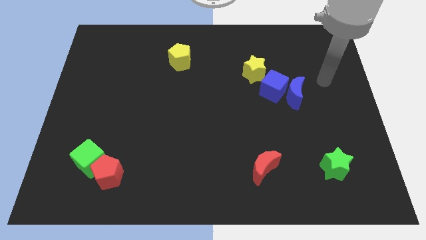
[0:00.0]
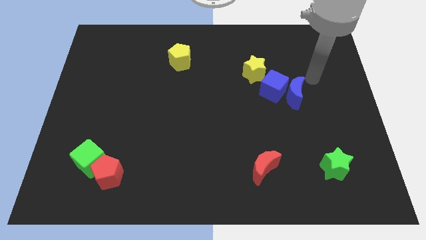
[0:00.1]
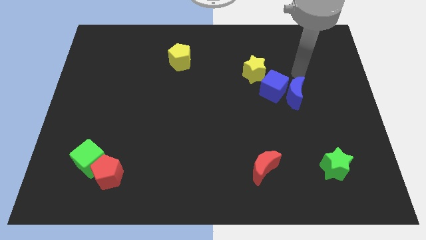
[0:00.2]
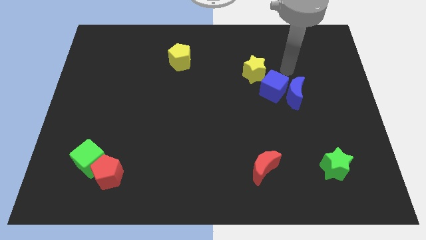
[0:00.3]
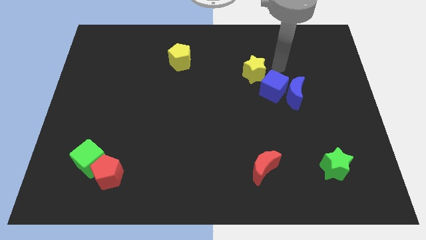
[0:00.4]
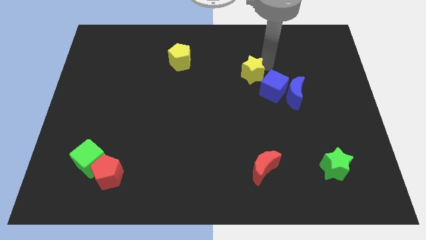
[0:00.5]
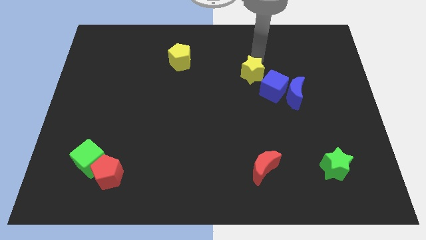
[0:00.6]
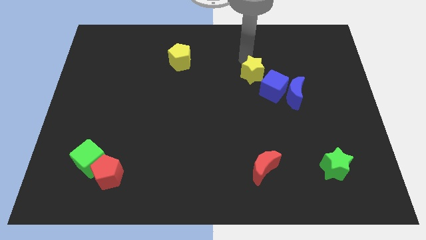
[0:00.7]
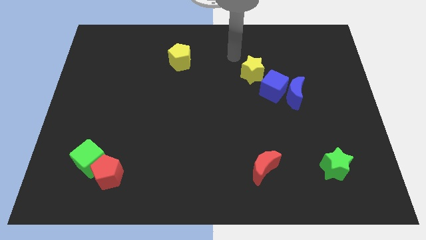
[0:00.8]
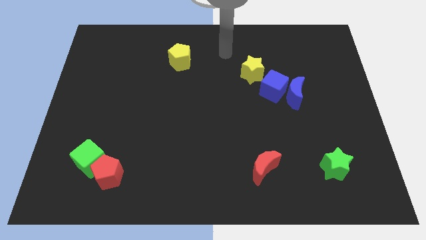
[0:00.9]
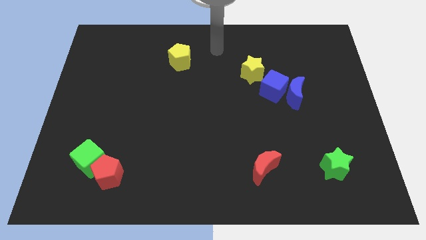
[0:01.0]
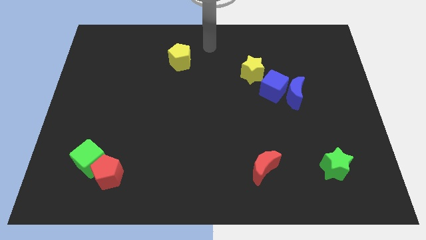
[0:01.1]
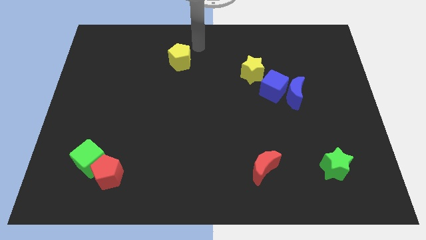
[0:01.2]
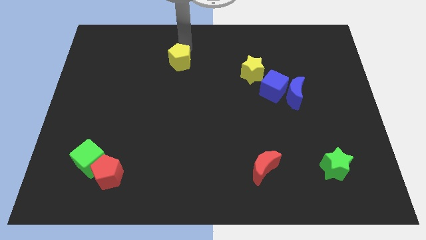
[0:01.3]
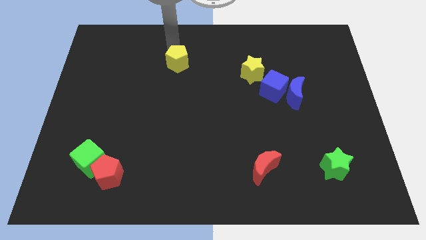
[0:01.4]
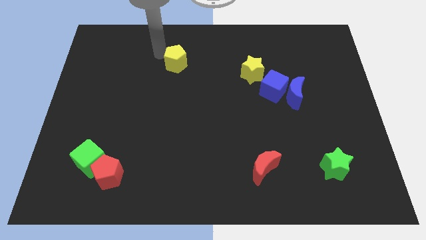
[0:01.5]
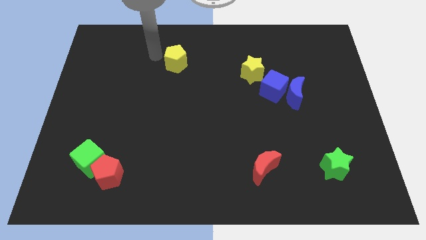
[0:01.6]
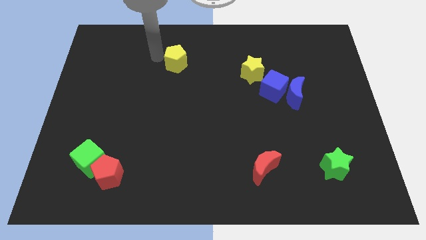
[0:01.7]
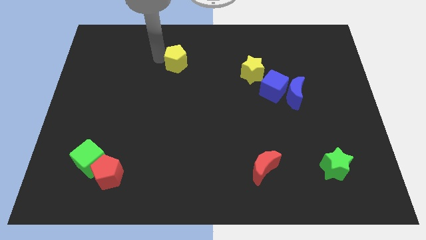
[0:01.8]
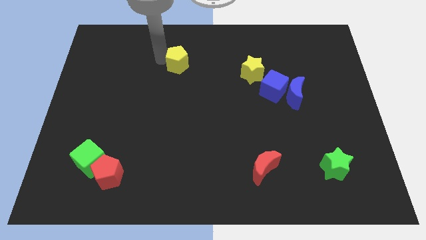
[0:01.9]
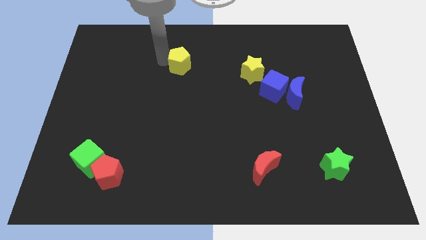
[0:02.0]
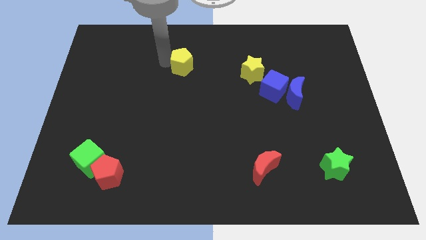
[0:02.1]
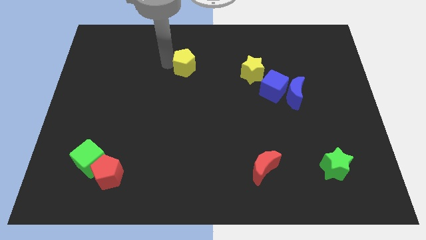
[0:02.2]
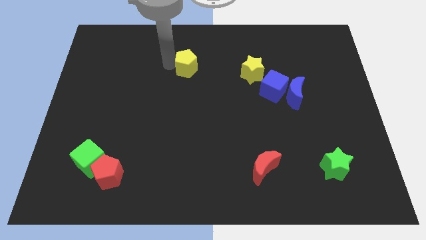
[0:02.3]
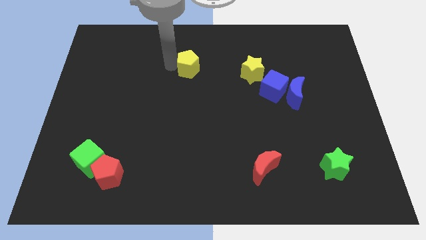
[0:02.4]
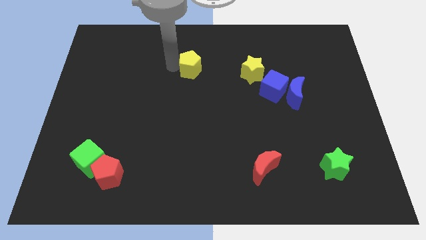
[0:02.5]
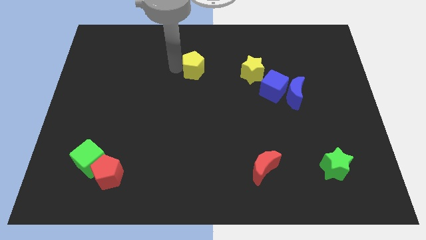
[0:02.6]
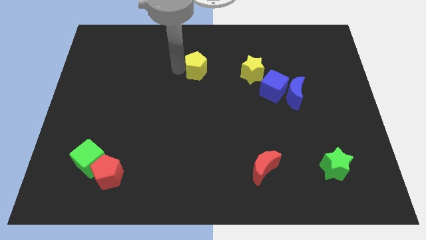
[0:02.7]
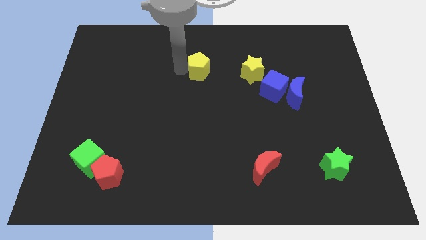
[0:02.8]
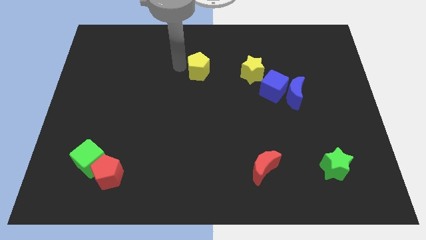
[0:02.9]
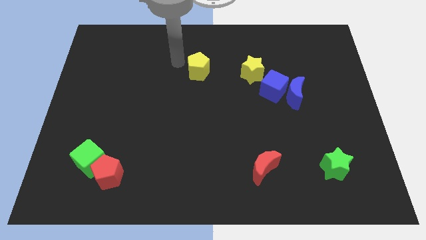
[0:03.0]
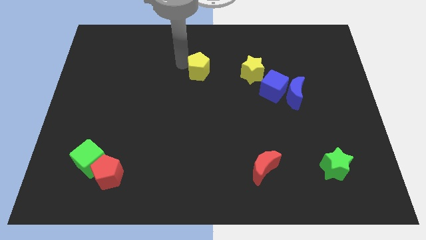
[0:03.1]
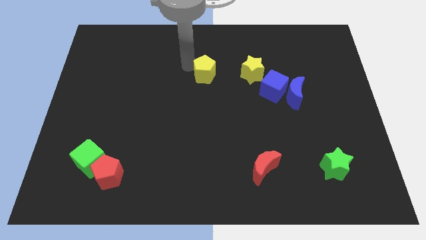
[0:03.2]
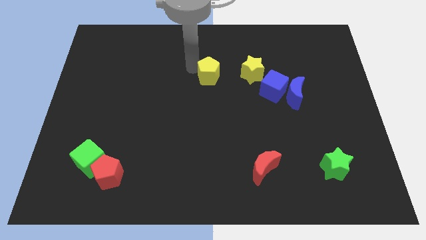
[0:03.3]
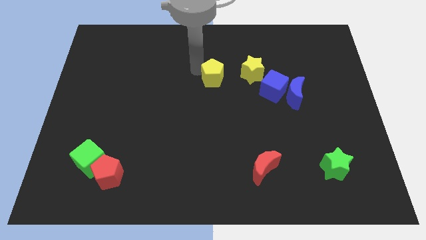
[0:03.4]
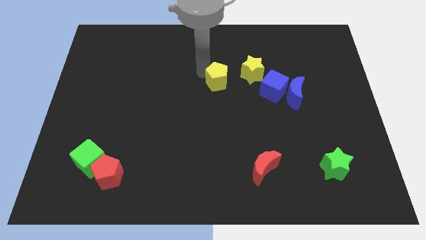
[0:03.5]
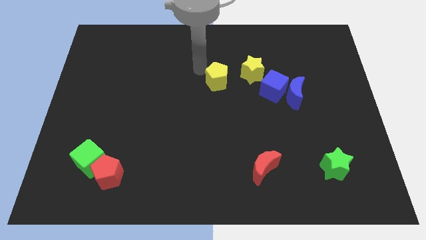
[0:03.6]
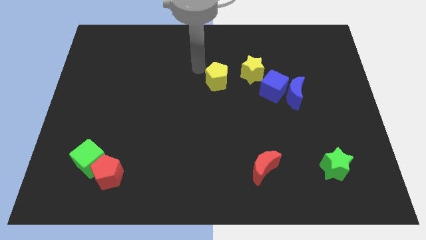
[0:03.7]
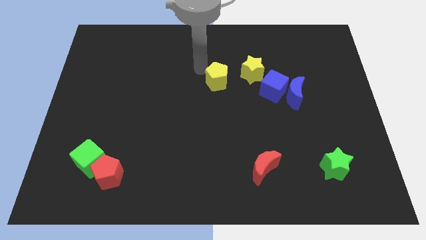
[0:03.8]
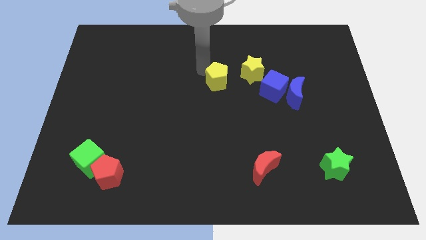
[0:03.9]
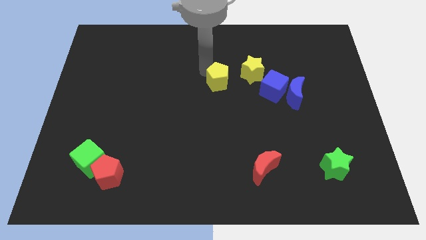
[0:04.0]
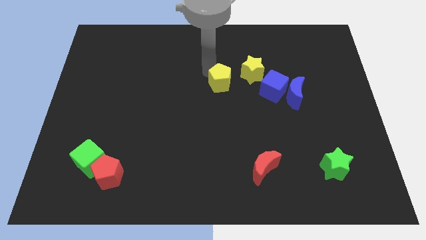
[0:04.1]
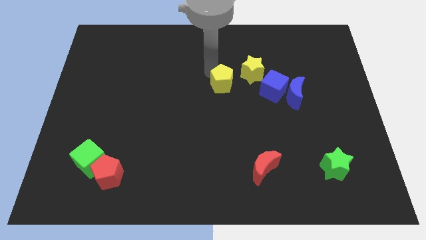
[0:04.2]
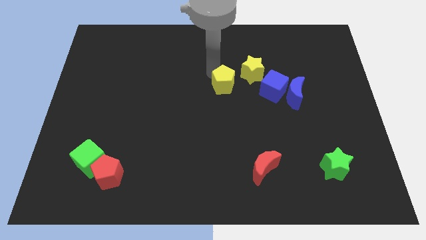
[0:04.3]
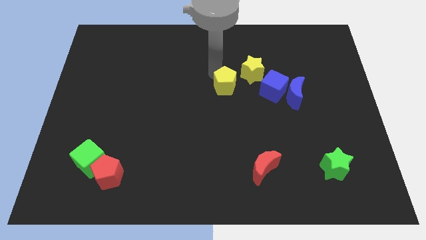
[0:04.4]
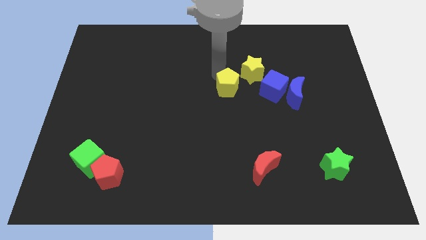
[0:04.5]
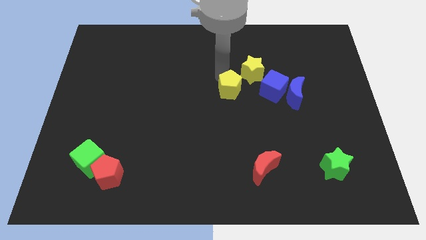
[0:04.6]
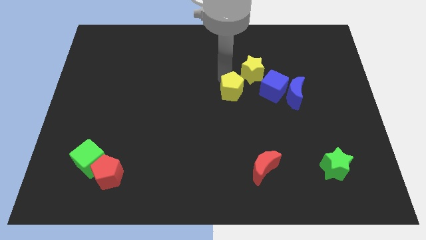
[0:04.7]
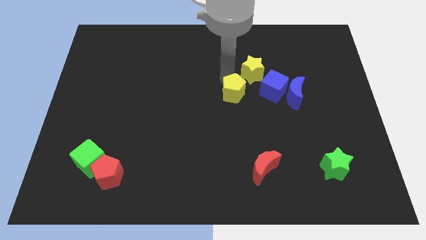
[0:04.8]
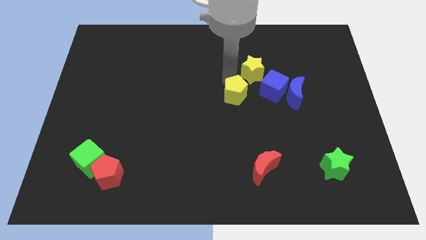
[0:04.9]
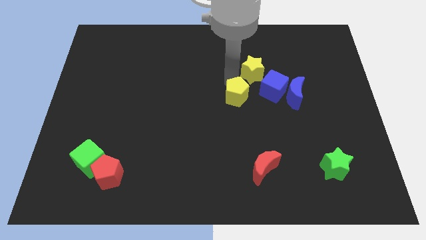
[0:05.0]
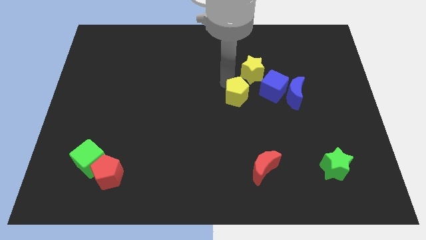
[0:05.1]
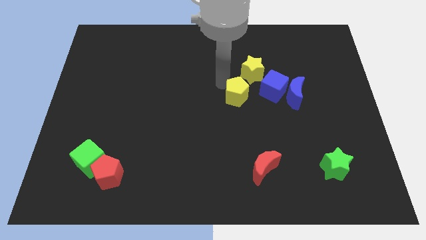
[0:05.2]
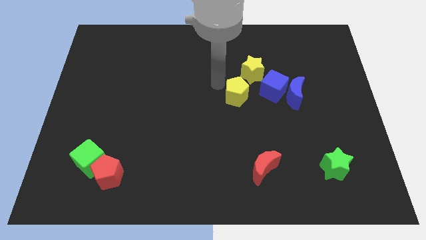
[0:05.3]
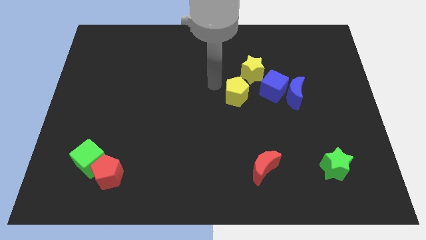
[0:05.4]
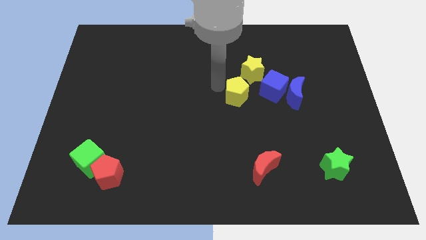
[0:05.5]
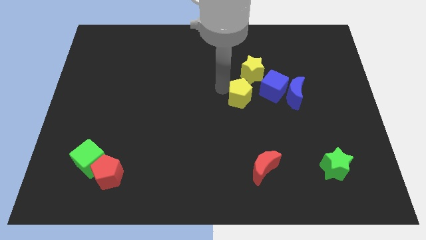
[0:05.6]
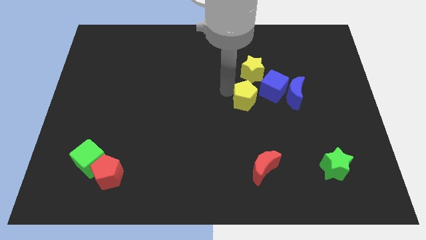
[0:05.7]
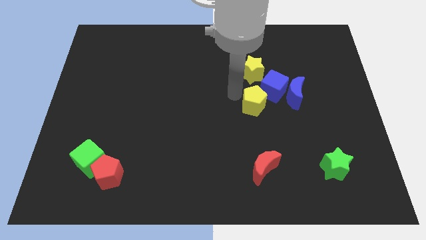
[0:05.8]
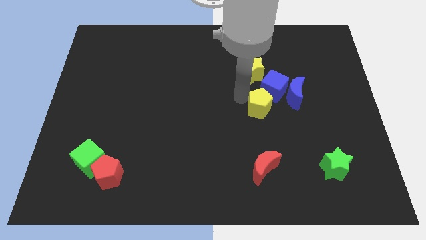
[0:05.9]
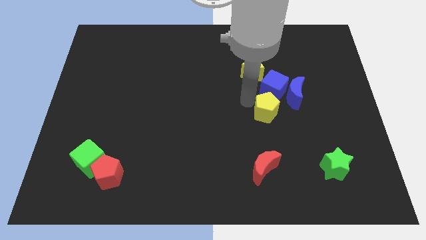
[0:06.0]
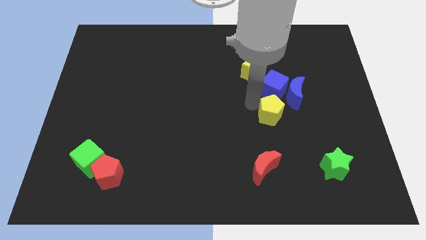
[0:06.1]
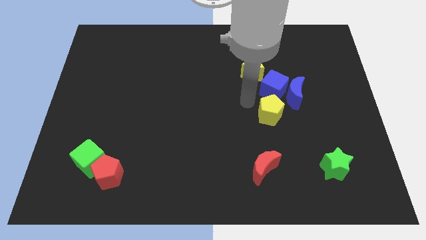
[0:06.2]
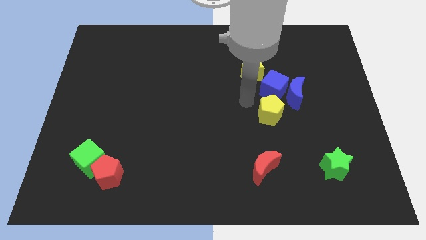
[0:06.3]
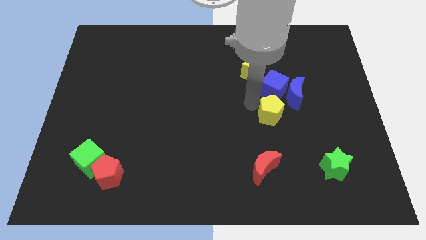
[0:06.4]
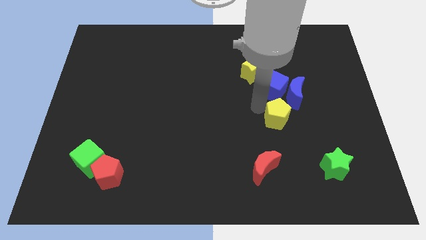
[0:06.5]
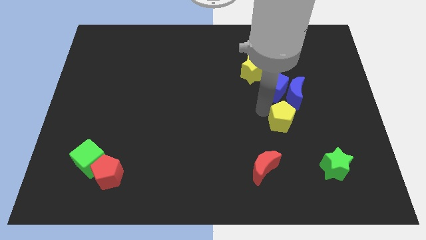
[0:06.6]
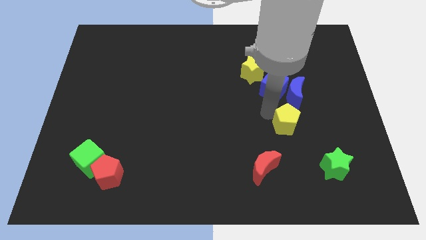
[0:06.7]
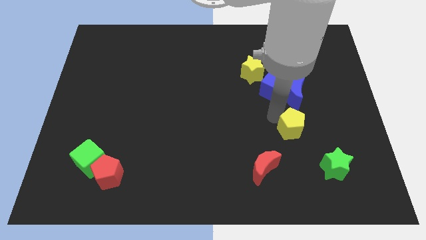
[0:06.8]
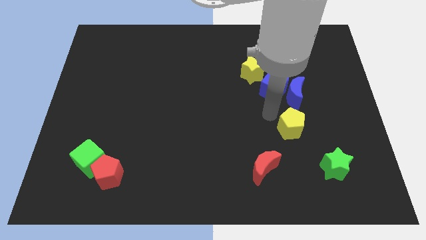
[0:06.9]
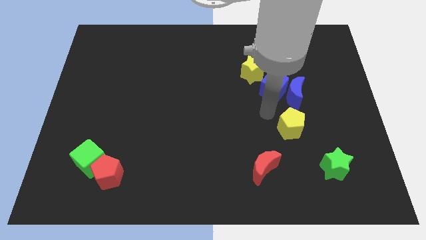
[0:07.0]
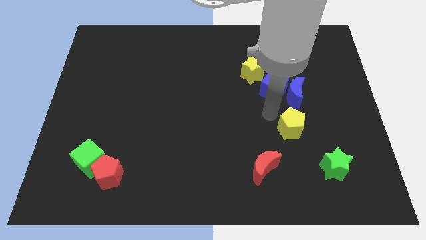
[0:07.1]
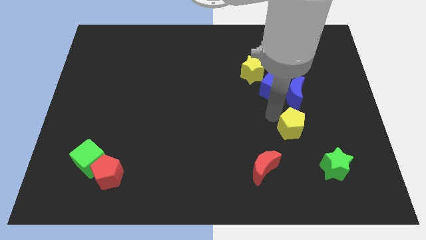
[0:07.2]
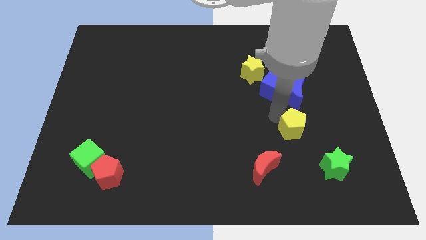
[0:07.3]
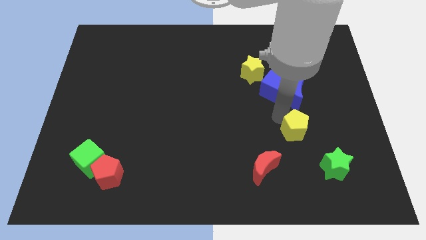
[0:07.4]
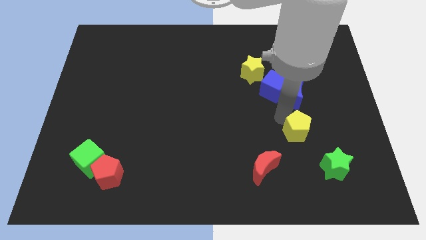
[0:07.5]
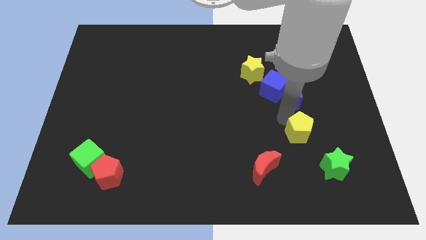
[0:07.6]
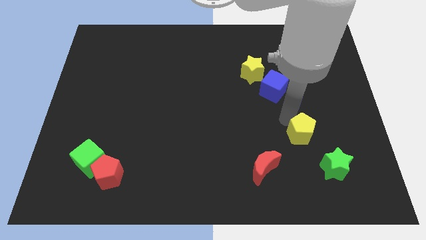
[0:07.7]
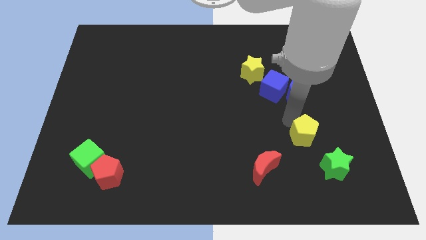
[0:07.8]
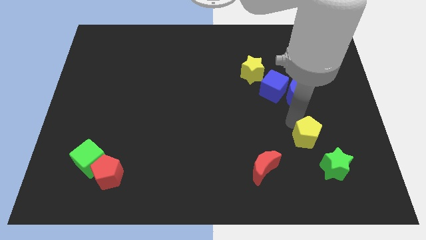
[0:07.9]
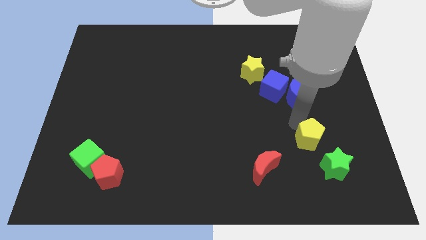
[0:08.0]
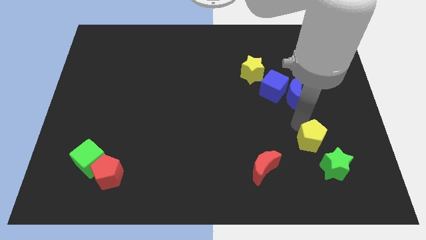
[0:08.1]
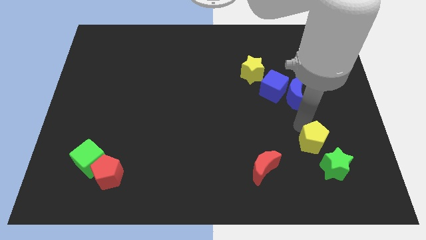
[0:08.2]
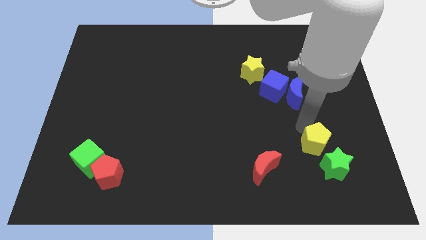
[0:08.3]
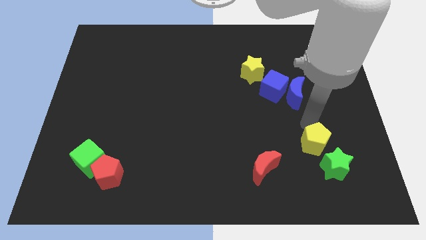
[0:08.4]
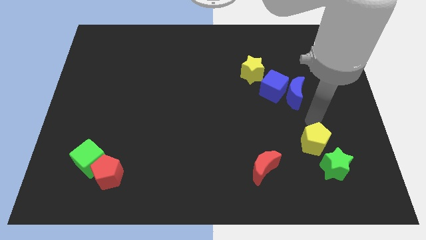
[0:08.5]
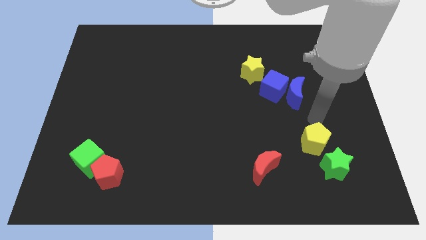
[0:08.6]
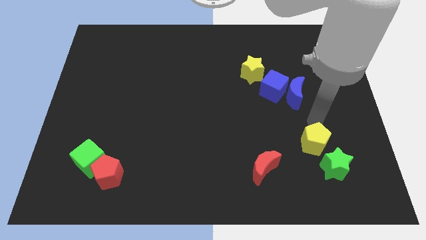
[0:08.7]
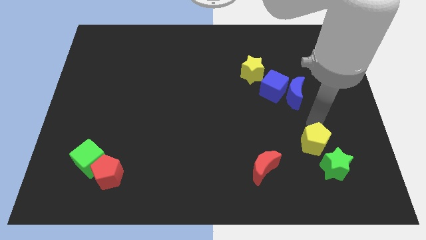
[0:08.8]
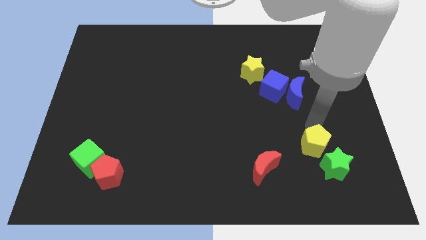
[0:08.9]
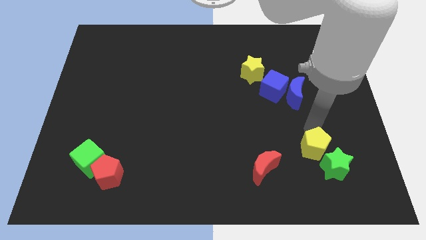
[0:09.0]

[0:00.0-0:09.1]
slide the yellow pentagon to the right side of the red moon
